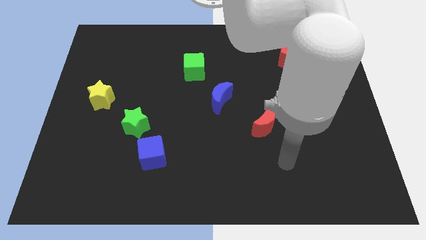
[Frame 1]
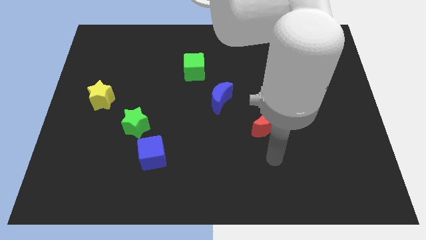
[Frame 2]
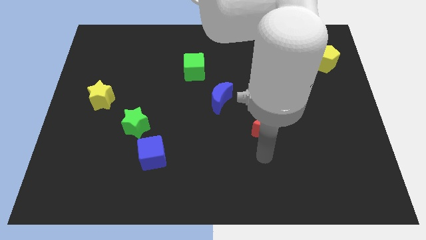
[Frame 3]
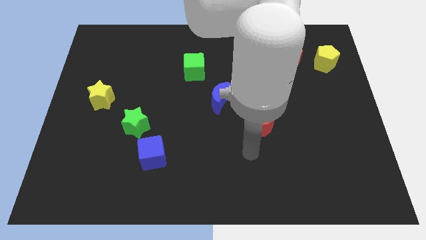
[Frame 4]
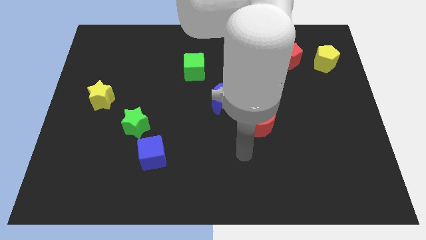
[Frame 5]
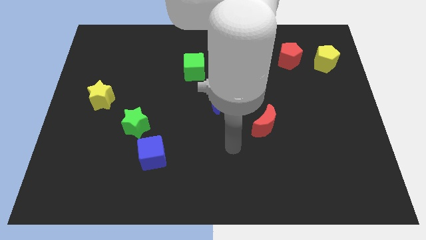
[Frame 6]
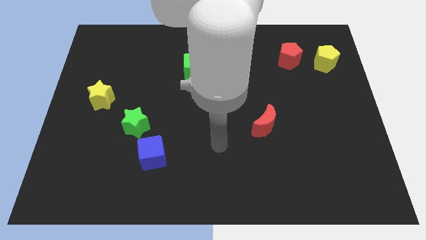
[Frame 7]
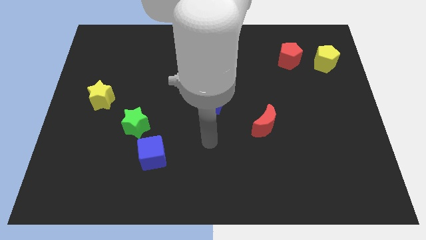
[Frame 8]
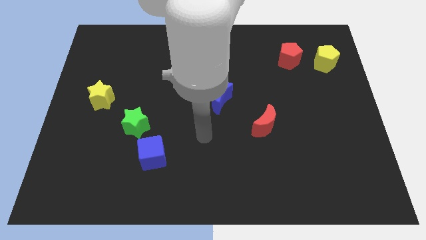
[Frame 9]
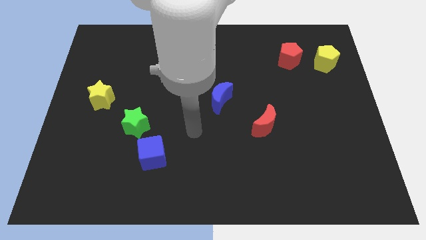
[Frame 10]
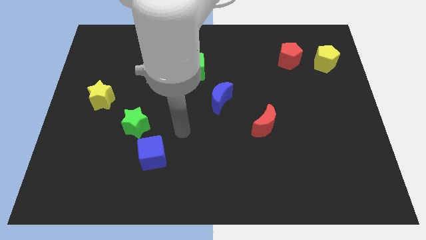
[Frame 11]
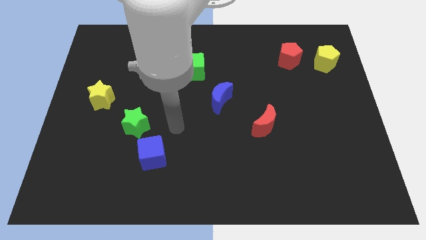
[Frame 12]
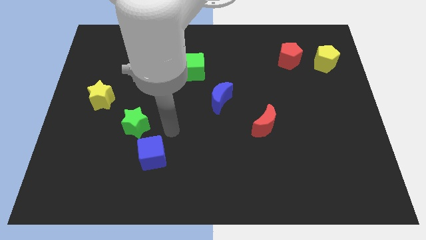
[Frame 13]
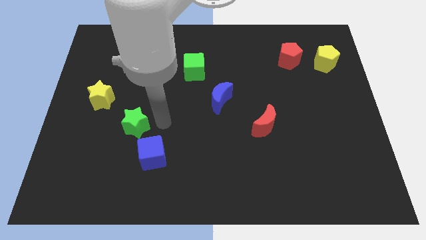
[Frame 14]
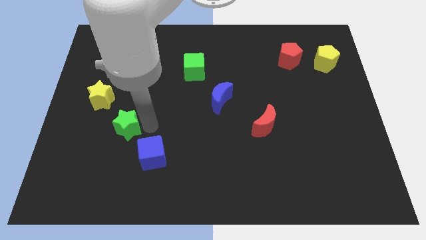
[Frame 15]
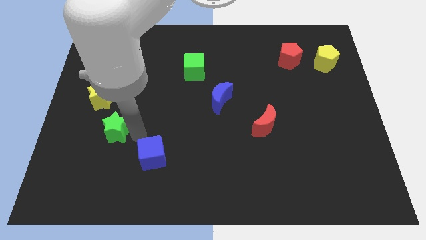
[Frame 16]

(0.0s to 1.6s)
separate the blue cube from the green star

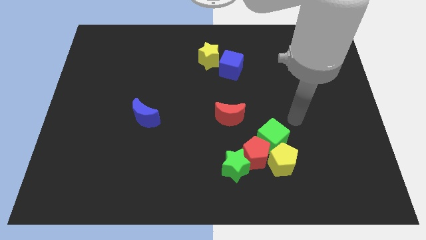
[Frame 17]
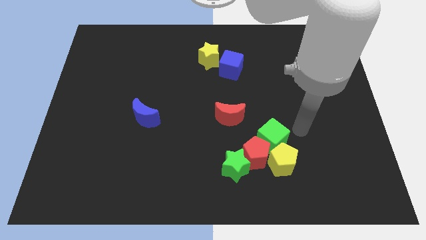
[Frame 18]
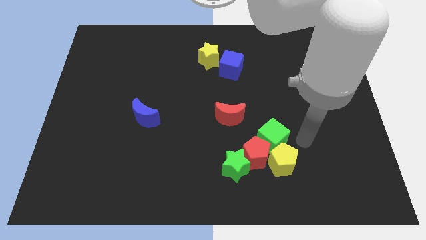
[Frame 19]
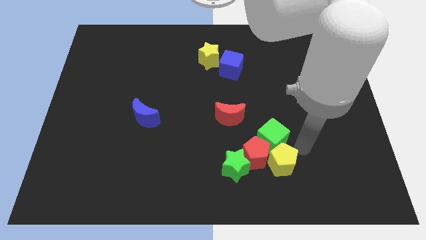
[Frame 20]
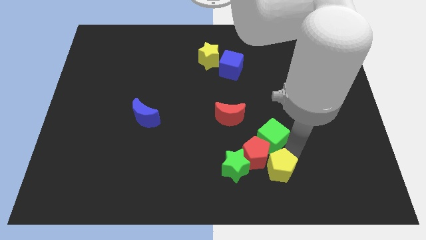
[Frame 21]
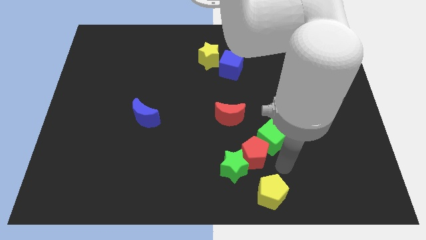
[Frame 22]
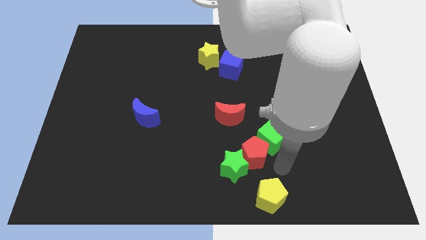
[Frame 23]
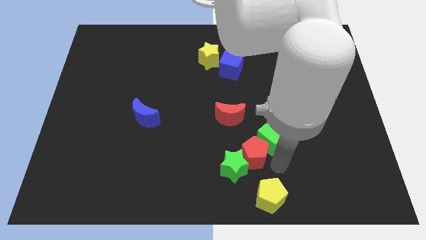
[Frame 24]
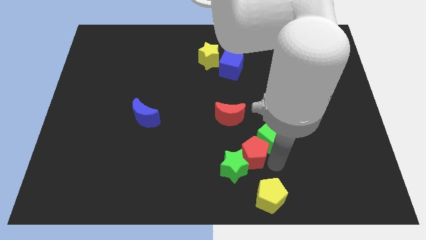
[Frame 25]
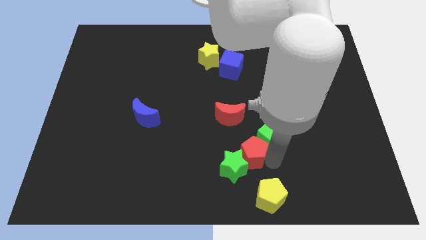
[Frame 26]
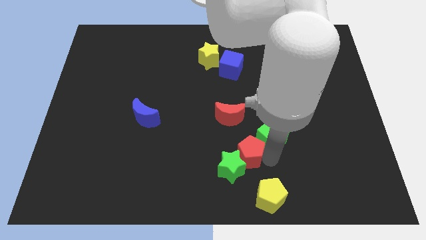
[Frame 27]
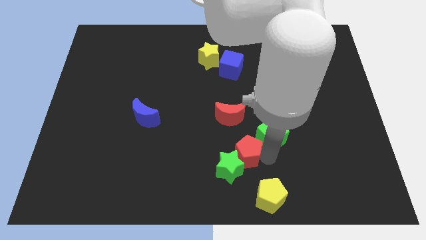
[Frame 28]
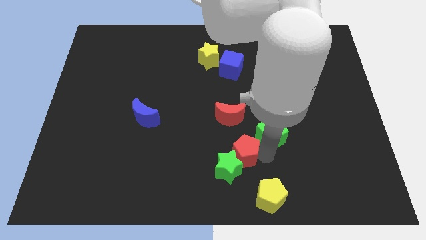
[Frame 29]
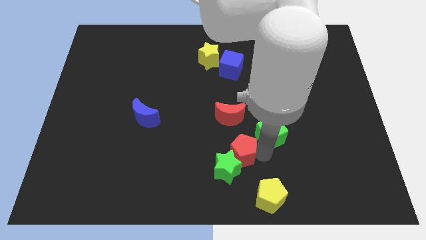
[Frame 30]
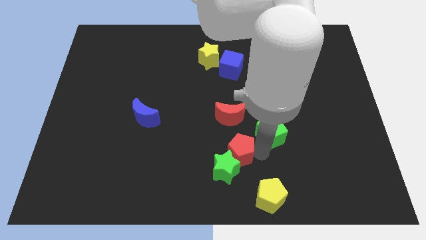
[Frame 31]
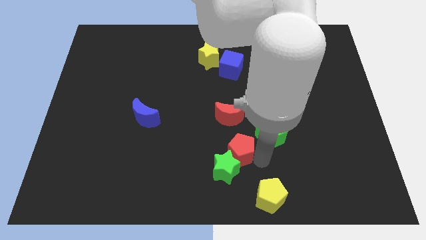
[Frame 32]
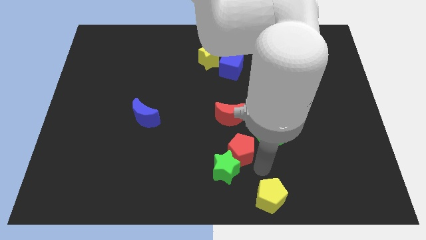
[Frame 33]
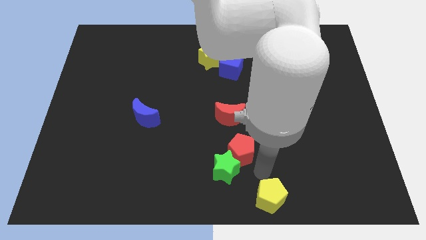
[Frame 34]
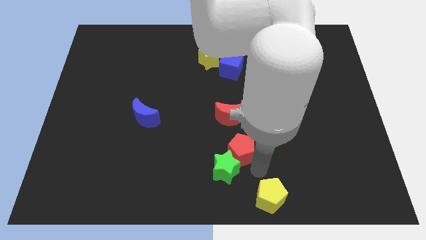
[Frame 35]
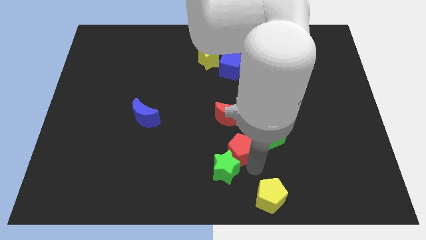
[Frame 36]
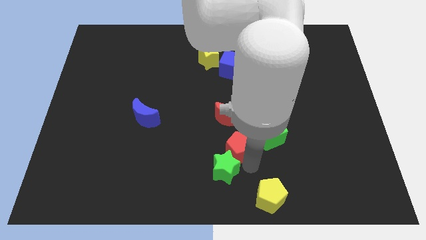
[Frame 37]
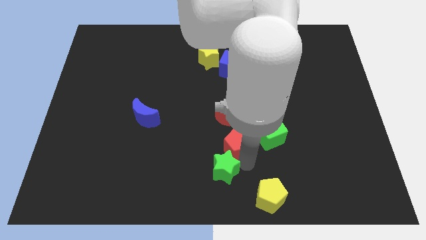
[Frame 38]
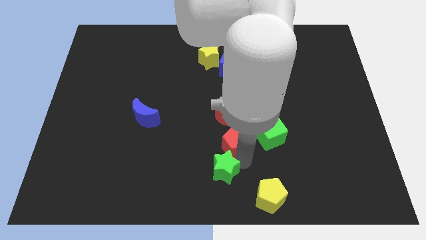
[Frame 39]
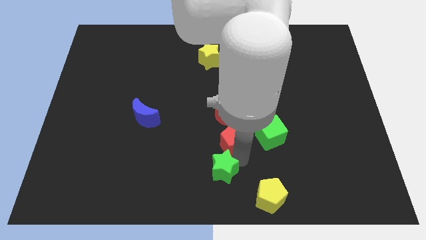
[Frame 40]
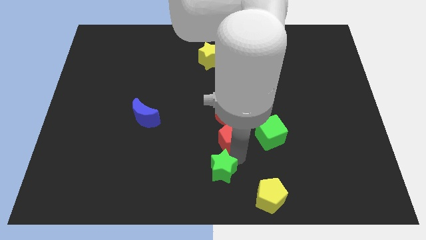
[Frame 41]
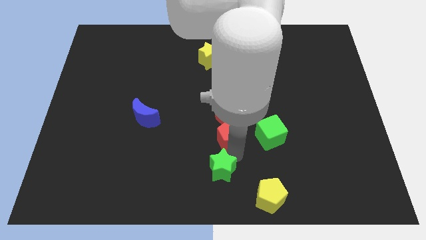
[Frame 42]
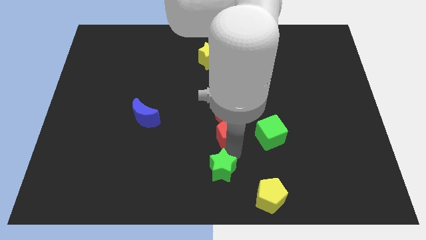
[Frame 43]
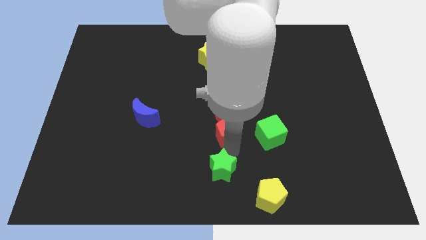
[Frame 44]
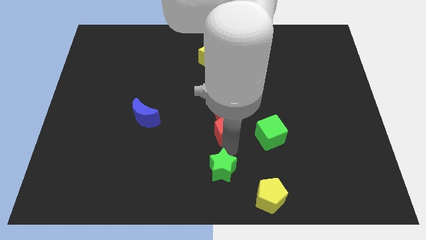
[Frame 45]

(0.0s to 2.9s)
separate the red pentagon from the green star, green cube, and yellow pentagon

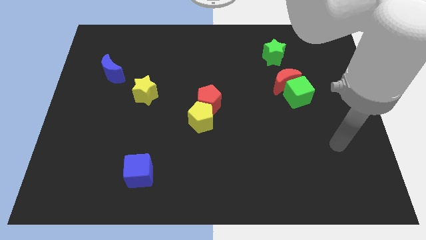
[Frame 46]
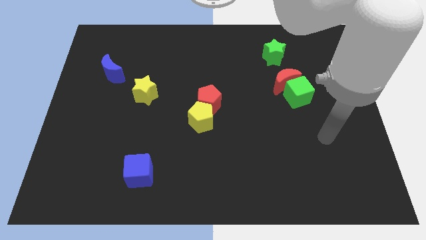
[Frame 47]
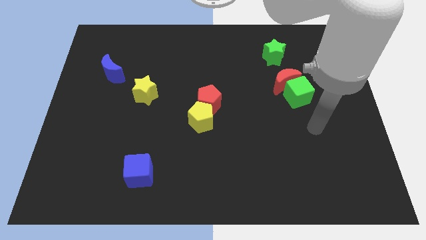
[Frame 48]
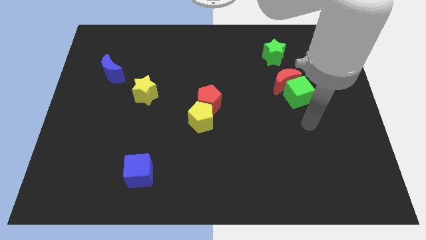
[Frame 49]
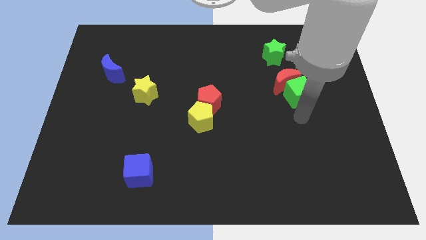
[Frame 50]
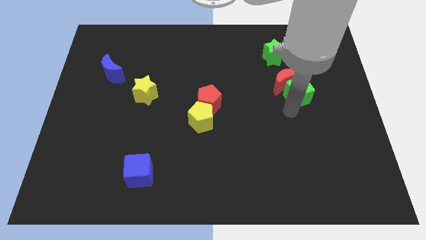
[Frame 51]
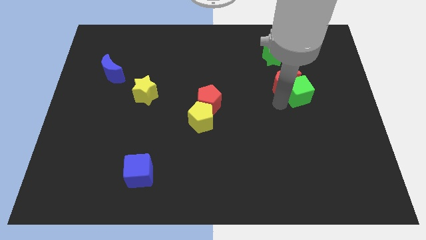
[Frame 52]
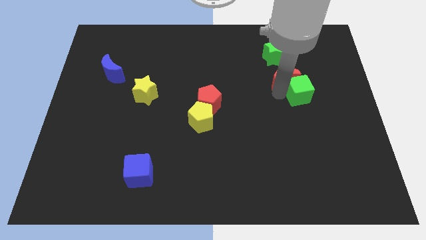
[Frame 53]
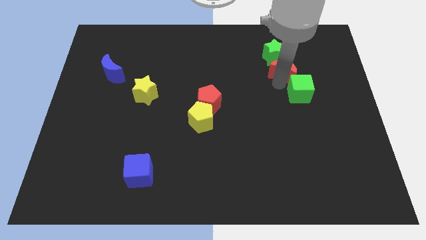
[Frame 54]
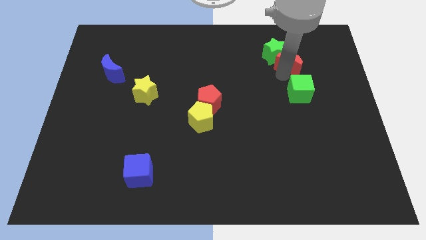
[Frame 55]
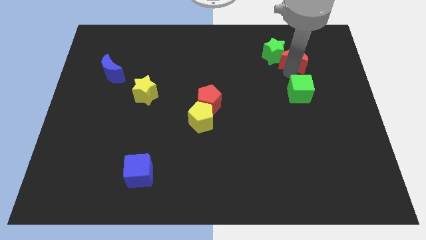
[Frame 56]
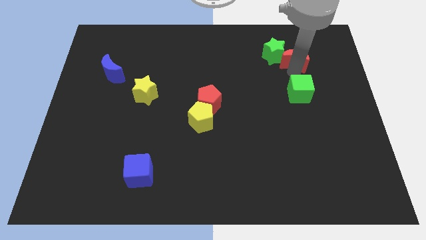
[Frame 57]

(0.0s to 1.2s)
pull the green cube apart from the red moon

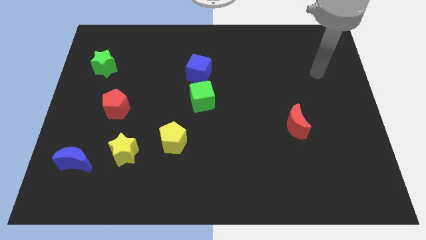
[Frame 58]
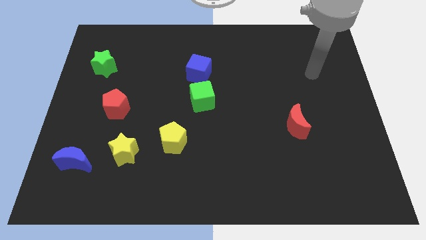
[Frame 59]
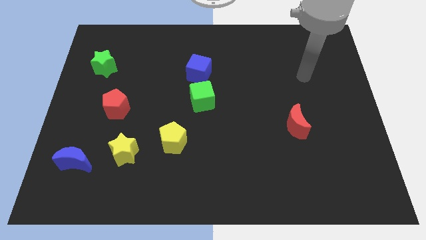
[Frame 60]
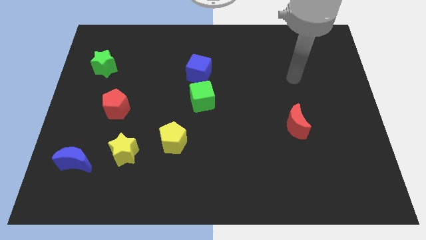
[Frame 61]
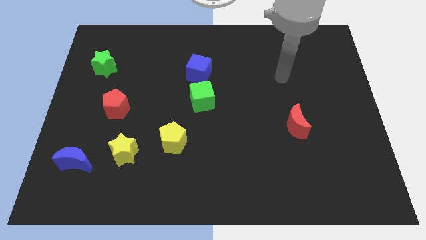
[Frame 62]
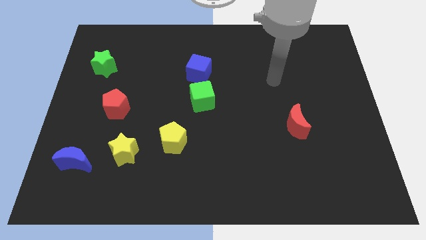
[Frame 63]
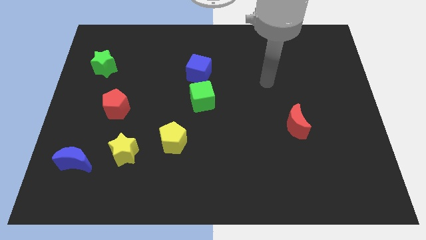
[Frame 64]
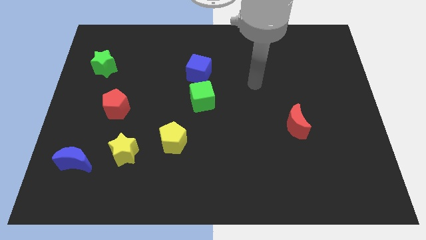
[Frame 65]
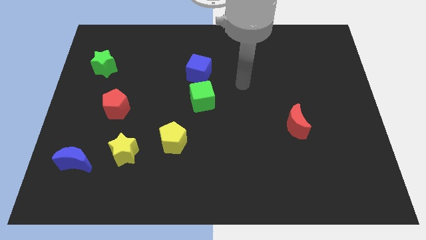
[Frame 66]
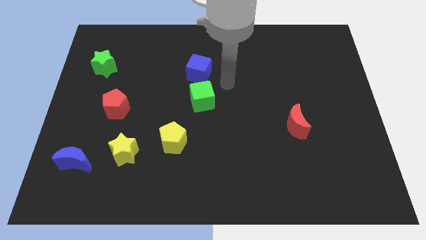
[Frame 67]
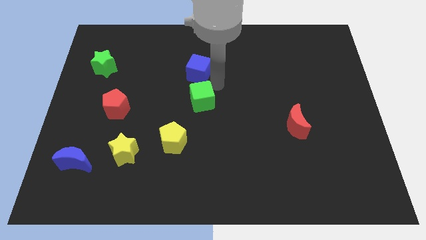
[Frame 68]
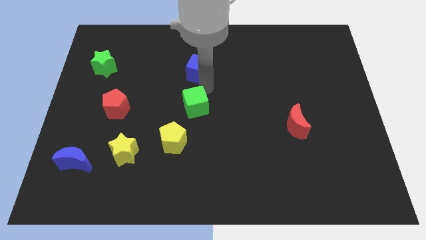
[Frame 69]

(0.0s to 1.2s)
move the blue cube away from the green cube

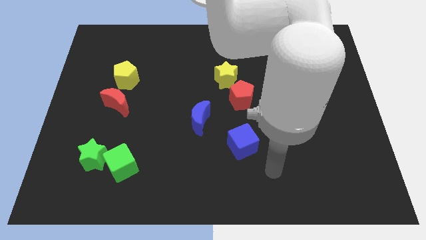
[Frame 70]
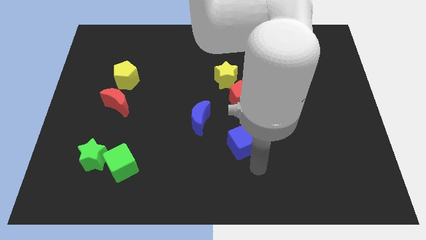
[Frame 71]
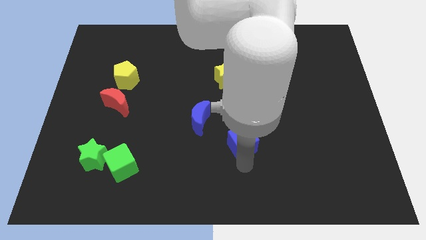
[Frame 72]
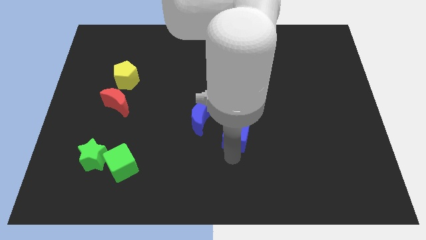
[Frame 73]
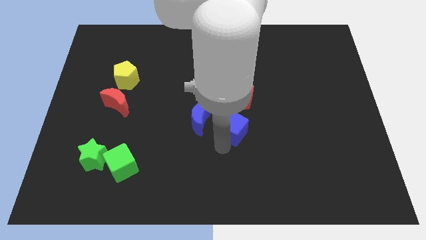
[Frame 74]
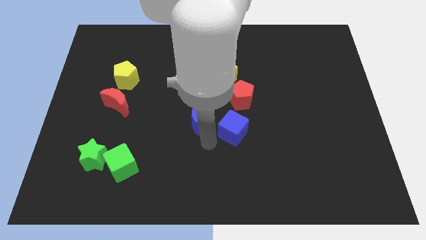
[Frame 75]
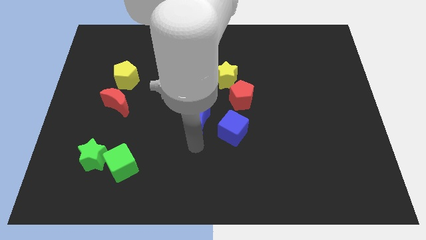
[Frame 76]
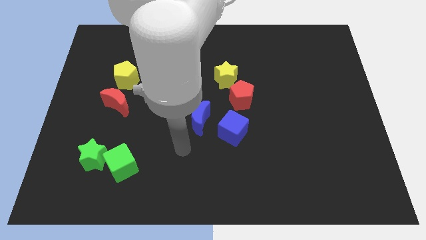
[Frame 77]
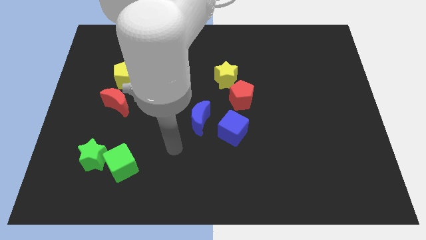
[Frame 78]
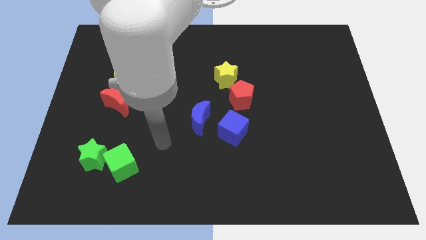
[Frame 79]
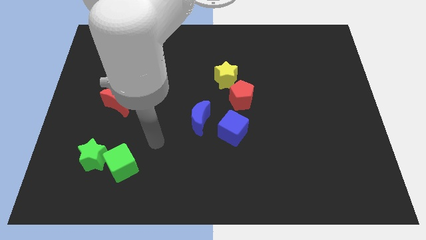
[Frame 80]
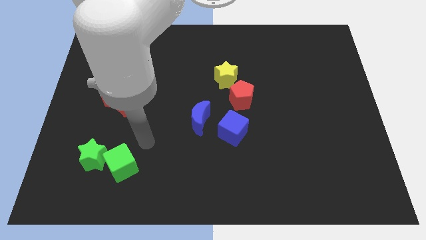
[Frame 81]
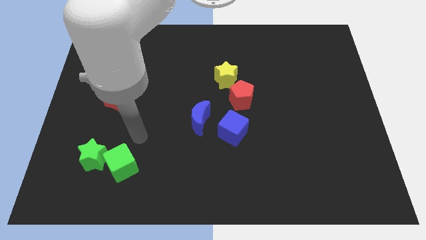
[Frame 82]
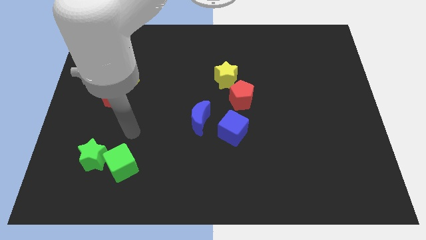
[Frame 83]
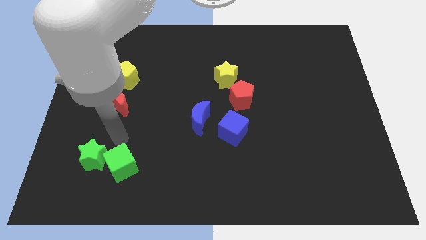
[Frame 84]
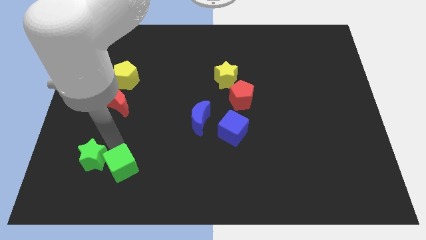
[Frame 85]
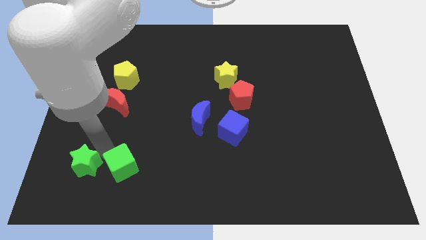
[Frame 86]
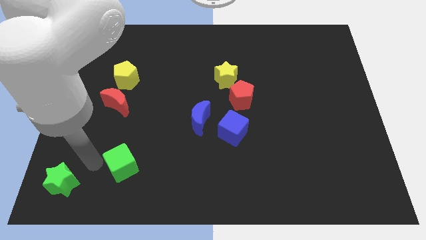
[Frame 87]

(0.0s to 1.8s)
move the green cube away from the green star

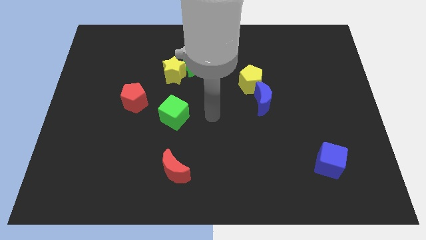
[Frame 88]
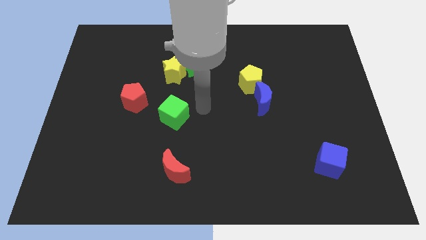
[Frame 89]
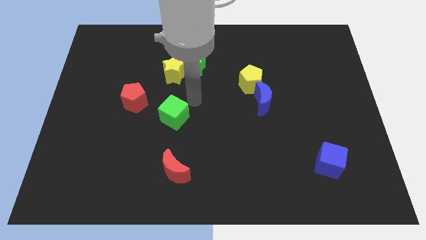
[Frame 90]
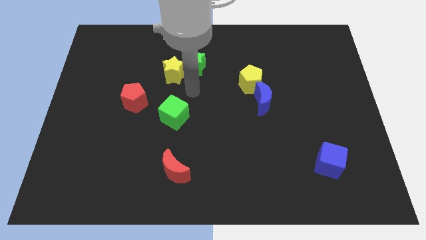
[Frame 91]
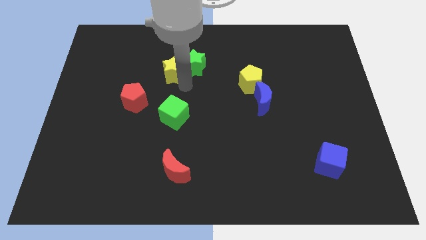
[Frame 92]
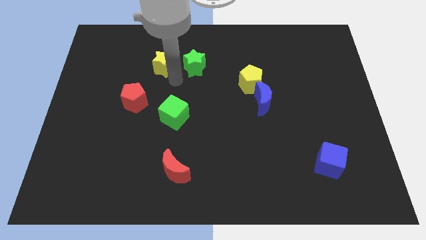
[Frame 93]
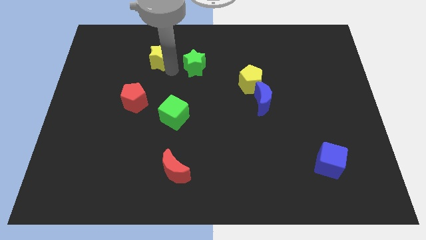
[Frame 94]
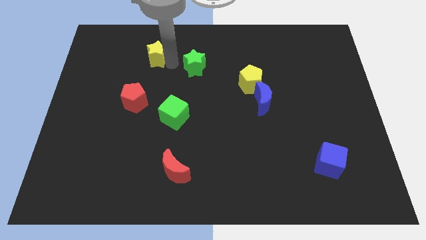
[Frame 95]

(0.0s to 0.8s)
move the green star away from the yellow star
